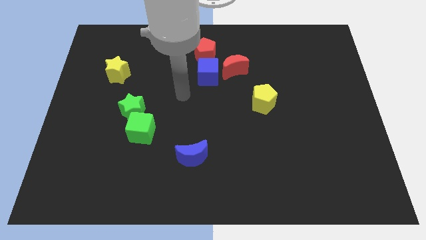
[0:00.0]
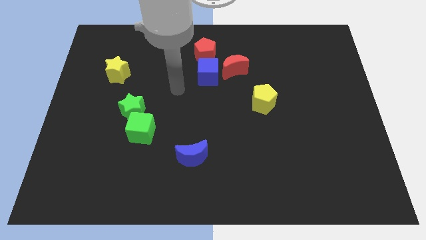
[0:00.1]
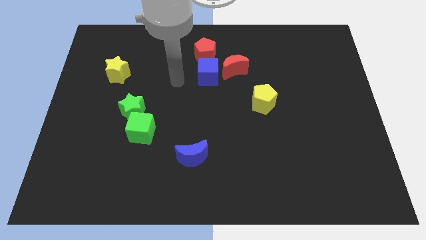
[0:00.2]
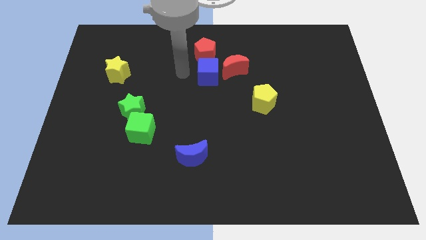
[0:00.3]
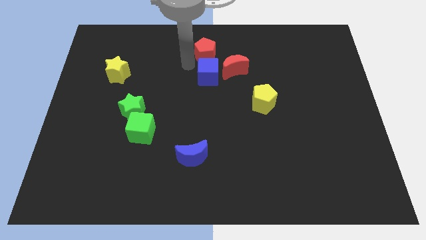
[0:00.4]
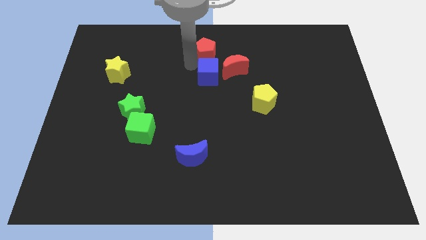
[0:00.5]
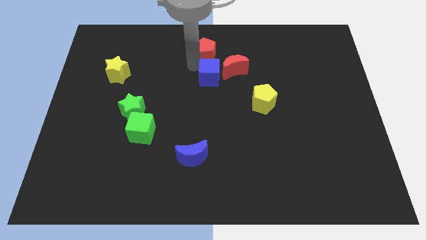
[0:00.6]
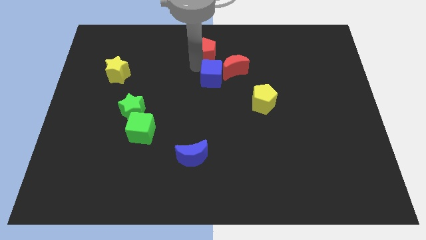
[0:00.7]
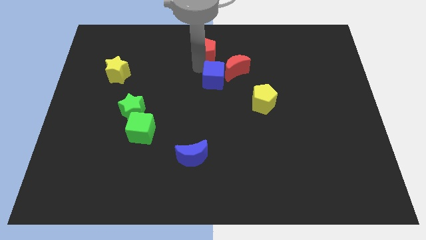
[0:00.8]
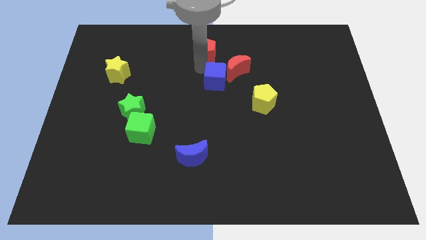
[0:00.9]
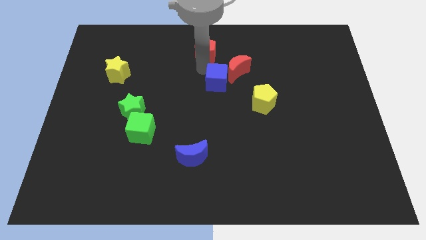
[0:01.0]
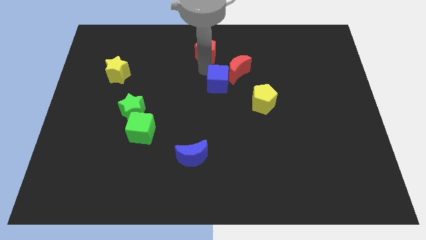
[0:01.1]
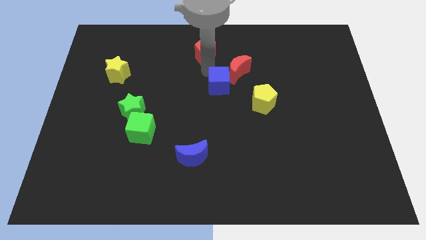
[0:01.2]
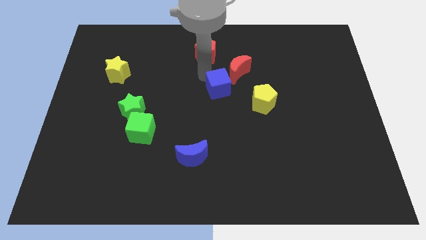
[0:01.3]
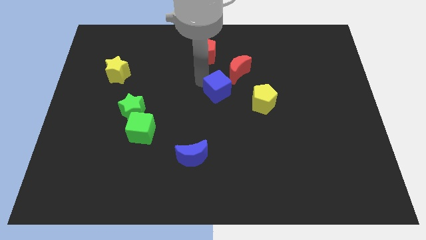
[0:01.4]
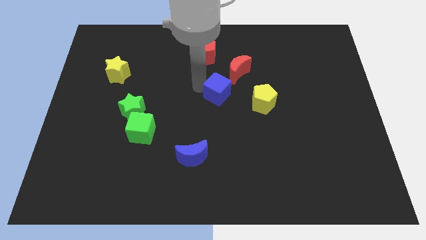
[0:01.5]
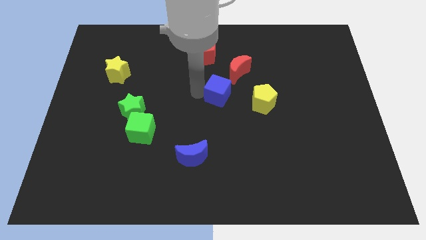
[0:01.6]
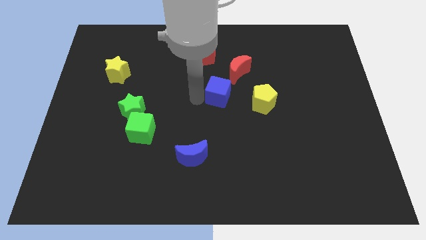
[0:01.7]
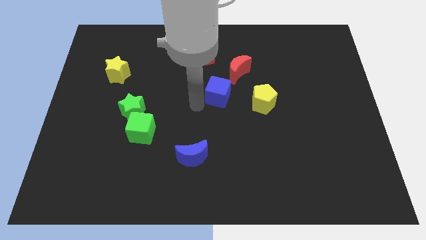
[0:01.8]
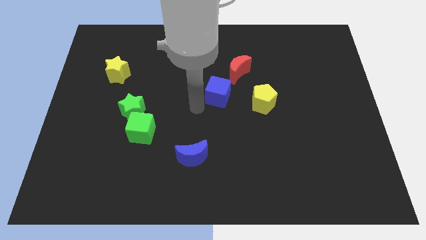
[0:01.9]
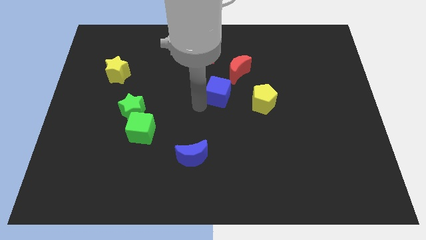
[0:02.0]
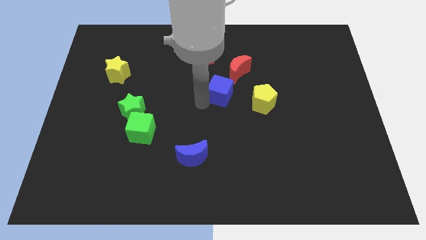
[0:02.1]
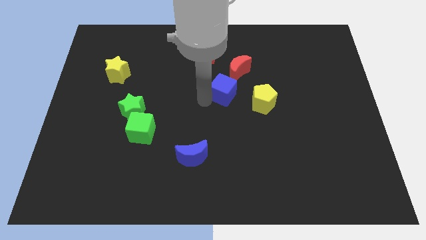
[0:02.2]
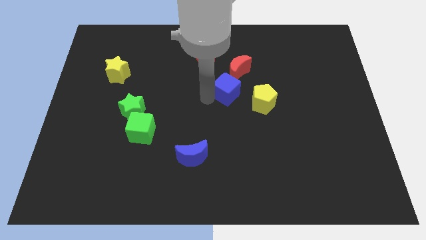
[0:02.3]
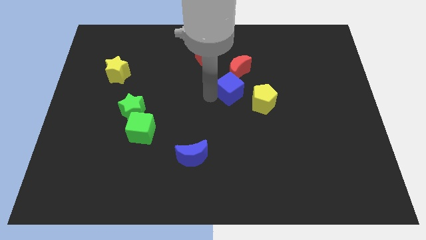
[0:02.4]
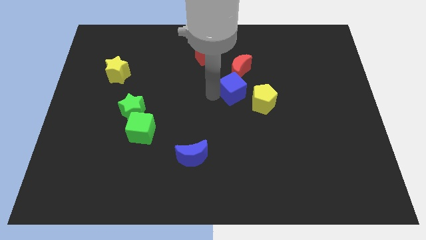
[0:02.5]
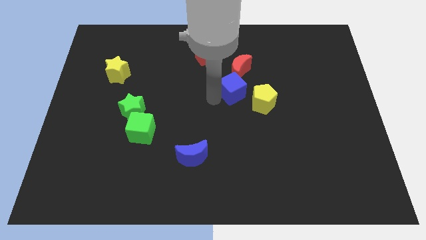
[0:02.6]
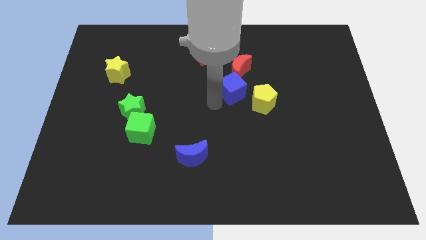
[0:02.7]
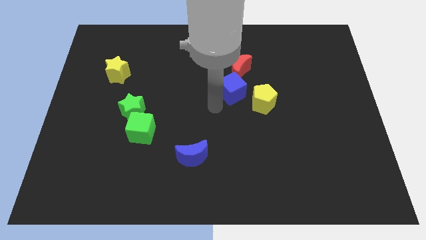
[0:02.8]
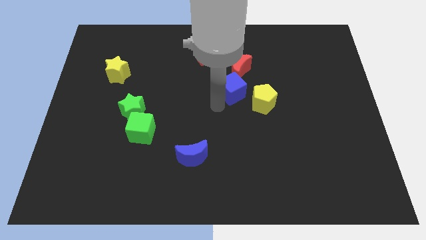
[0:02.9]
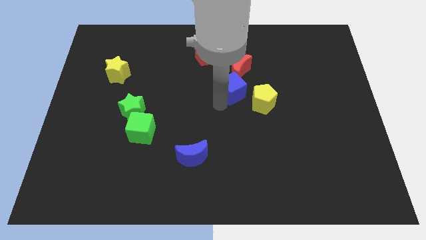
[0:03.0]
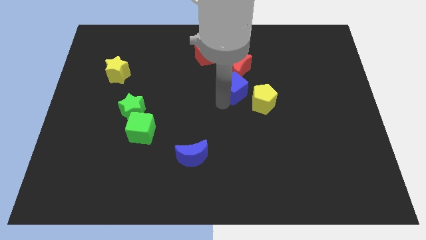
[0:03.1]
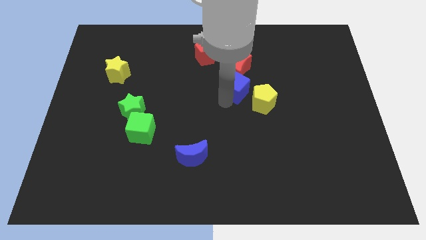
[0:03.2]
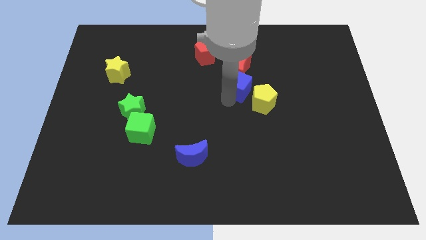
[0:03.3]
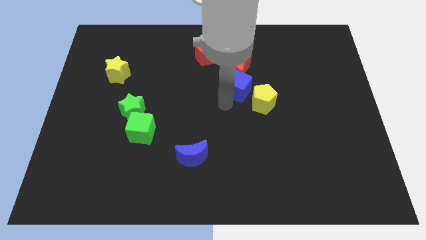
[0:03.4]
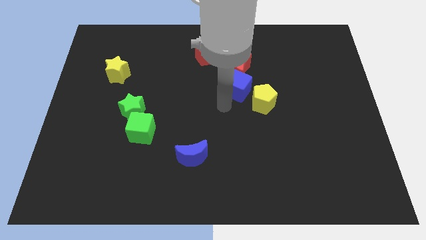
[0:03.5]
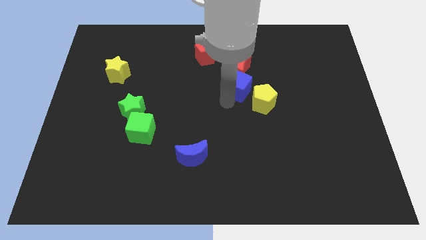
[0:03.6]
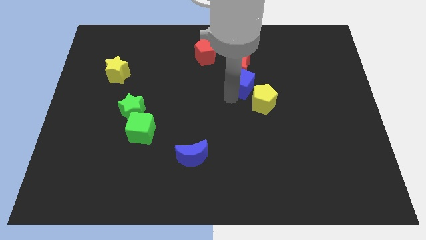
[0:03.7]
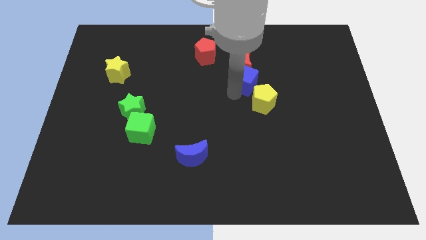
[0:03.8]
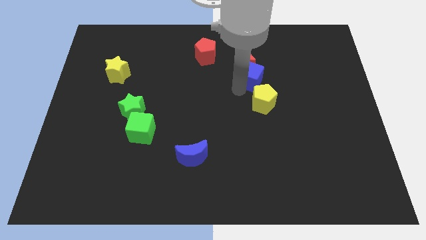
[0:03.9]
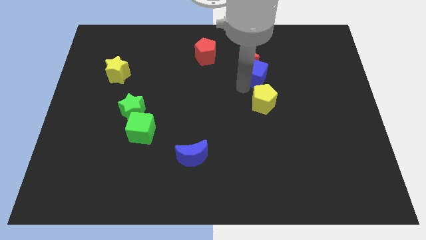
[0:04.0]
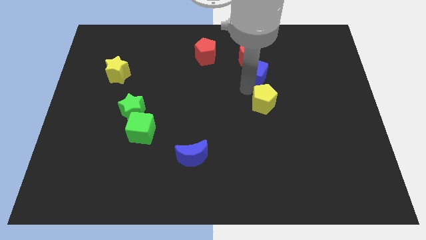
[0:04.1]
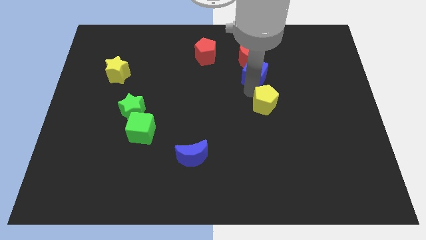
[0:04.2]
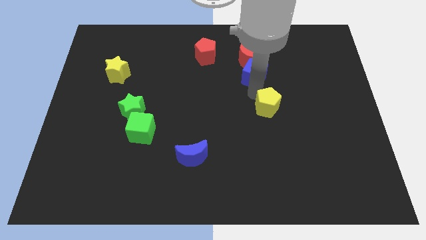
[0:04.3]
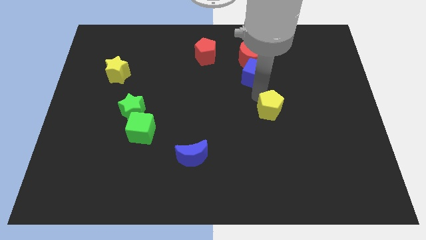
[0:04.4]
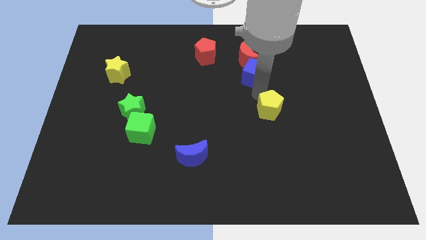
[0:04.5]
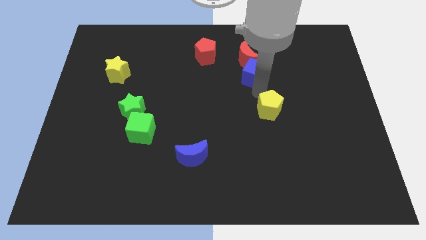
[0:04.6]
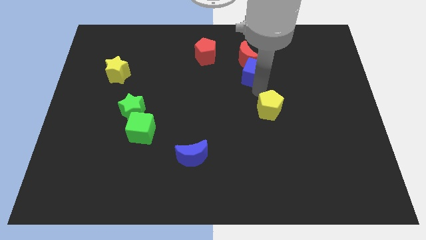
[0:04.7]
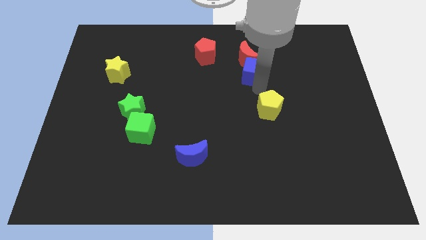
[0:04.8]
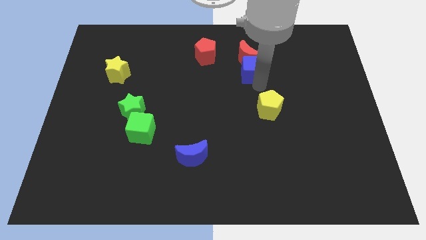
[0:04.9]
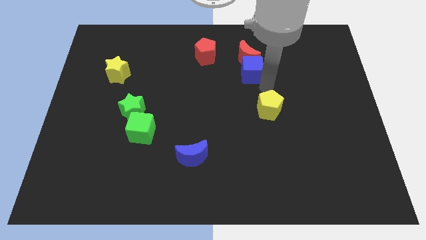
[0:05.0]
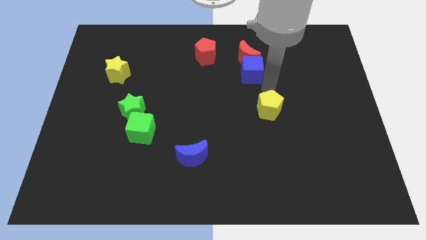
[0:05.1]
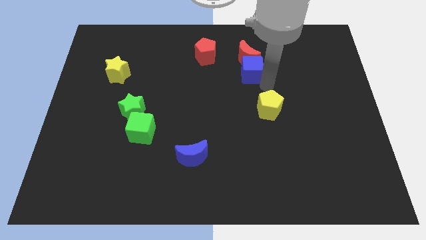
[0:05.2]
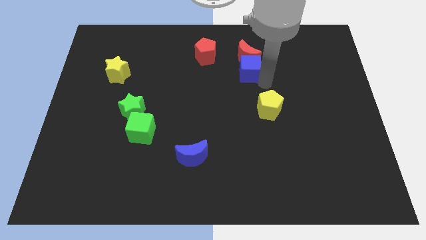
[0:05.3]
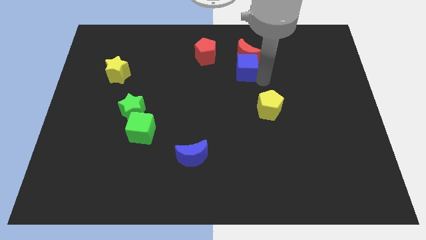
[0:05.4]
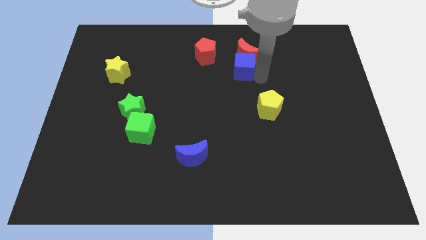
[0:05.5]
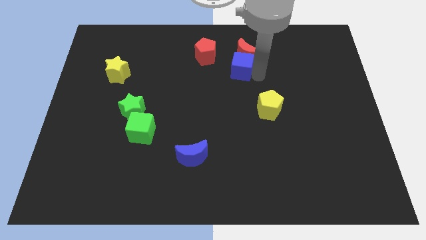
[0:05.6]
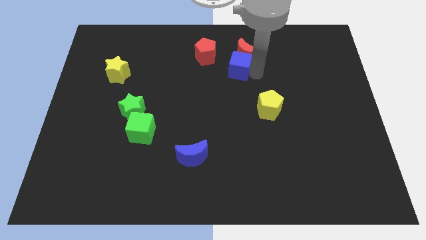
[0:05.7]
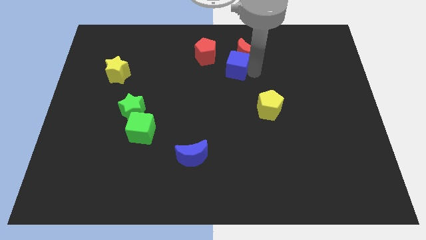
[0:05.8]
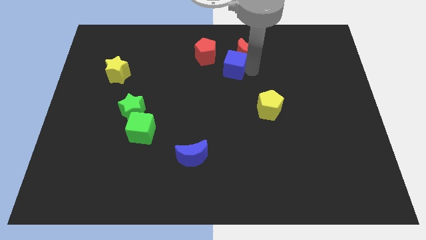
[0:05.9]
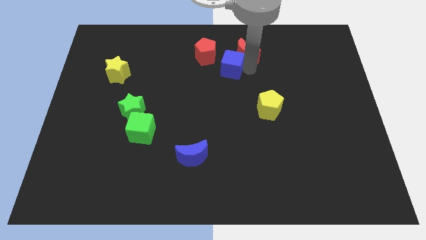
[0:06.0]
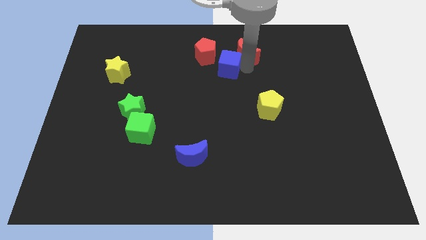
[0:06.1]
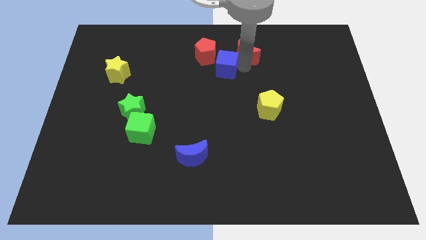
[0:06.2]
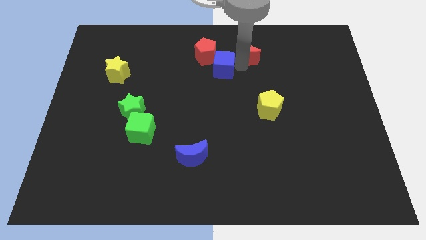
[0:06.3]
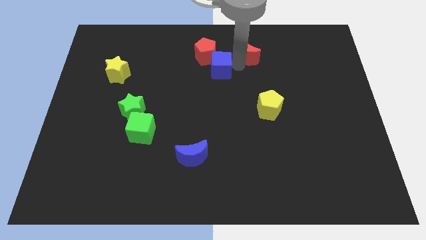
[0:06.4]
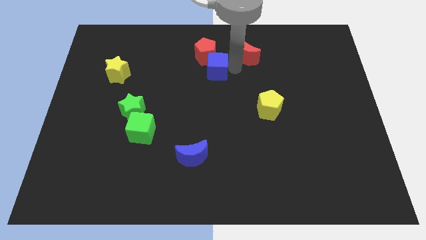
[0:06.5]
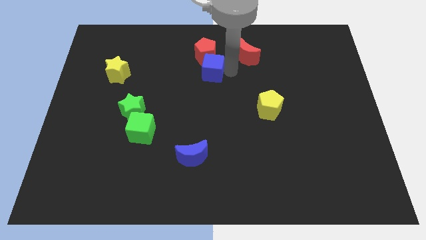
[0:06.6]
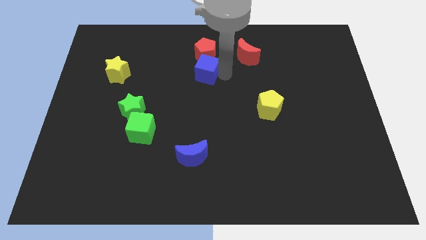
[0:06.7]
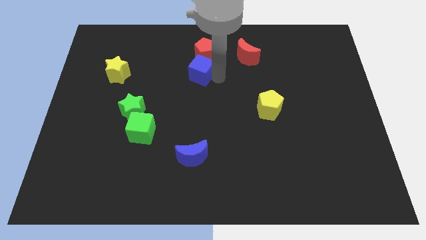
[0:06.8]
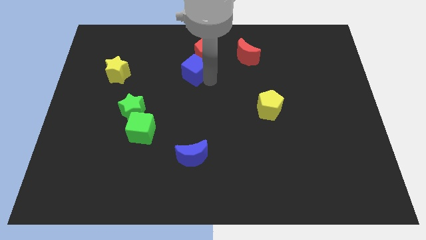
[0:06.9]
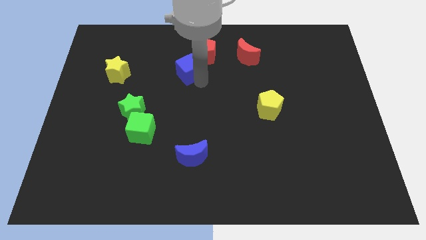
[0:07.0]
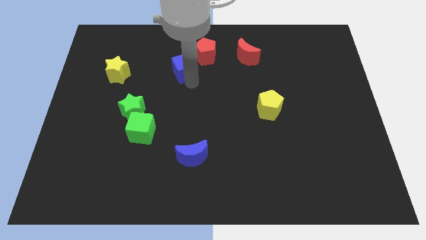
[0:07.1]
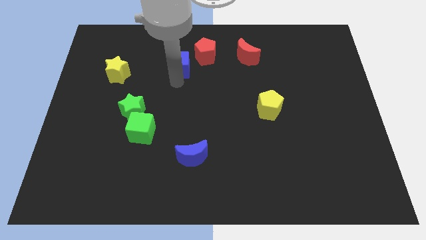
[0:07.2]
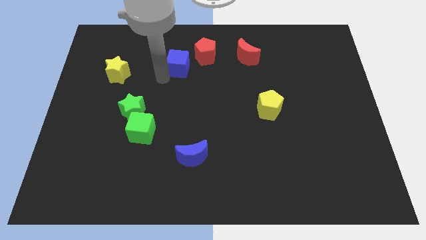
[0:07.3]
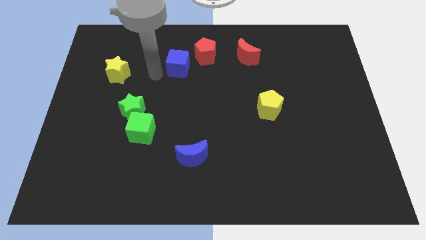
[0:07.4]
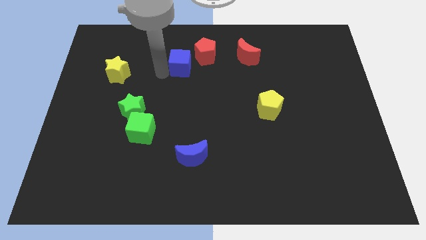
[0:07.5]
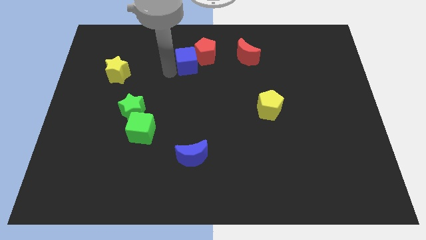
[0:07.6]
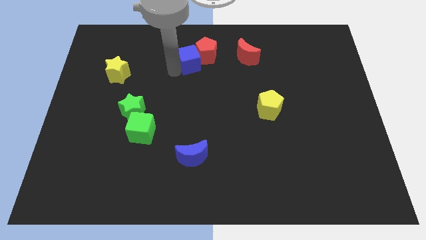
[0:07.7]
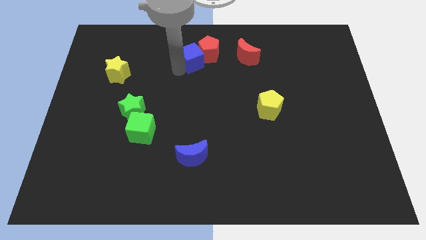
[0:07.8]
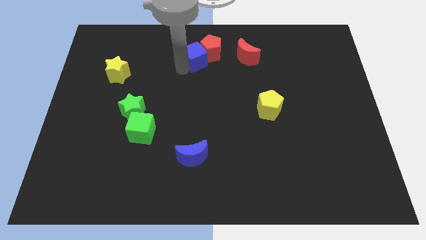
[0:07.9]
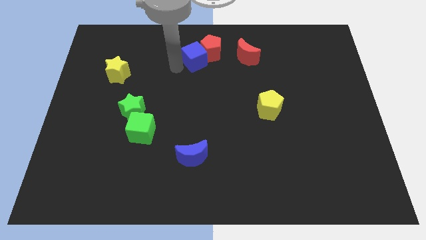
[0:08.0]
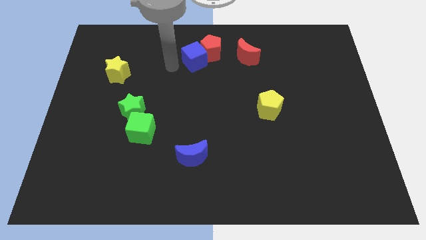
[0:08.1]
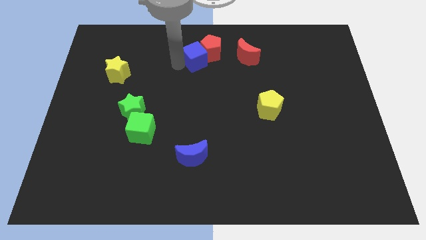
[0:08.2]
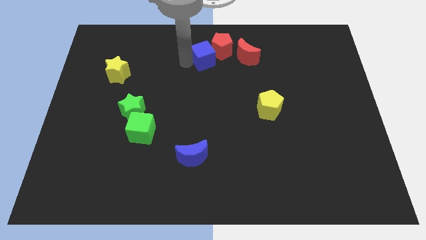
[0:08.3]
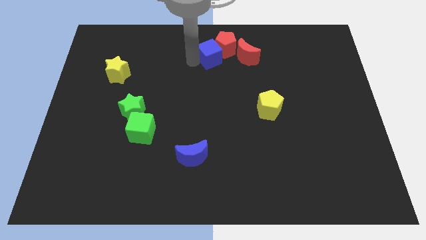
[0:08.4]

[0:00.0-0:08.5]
move the blue cube to the towards your base
